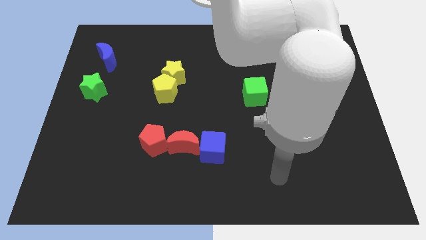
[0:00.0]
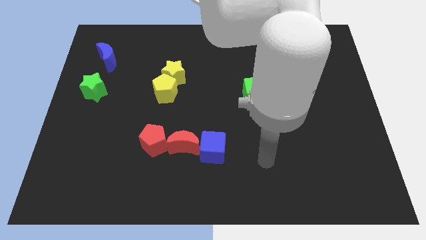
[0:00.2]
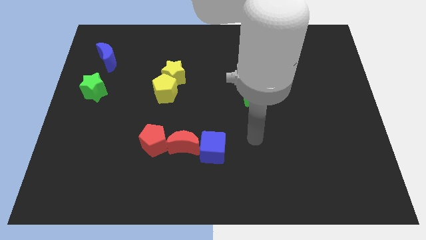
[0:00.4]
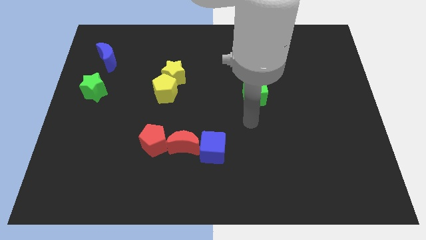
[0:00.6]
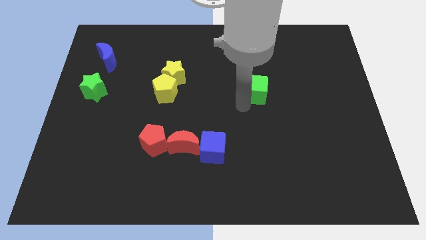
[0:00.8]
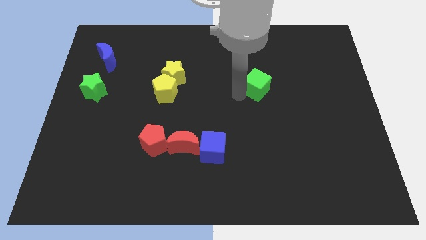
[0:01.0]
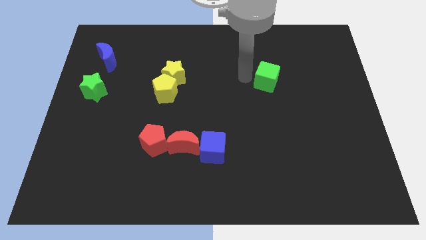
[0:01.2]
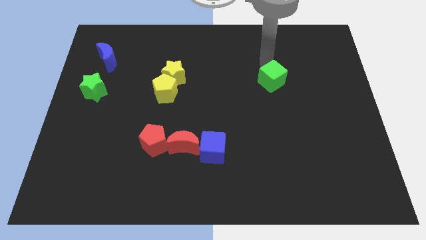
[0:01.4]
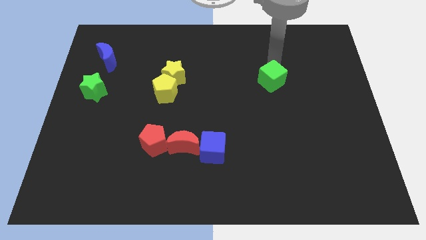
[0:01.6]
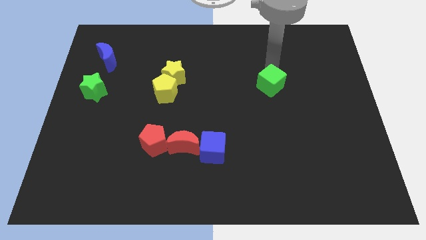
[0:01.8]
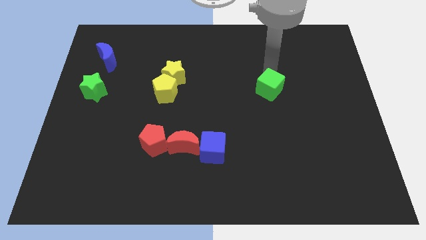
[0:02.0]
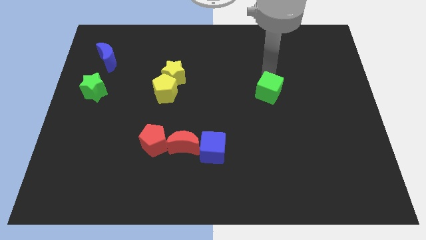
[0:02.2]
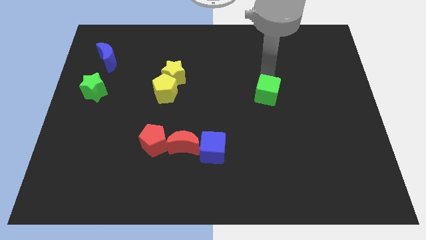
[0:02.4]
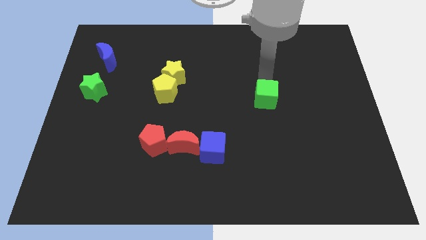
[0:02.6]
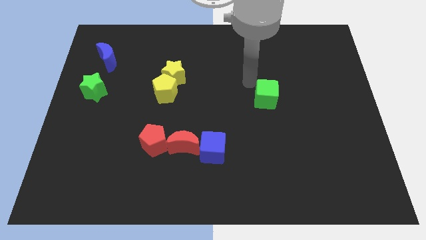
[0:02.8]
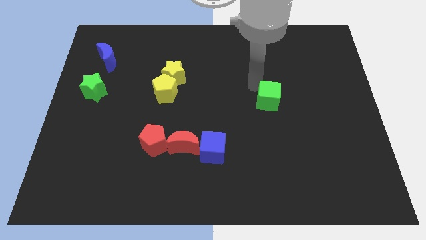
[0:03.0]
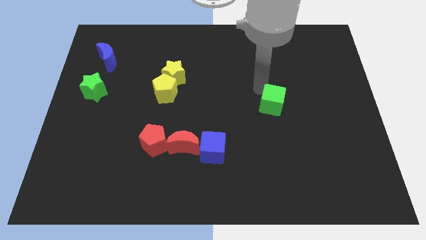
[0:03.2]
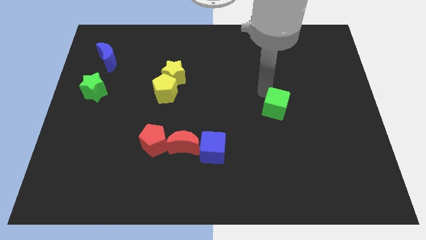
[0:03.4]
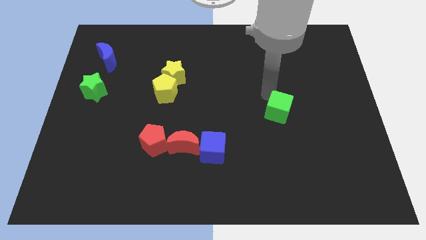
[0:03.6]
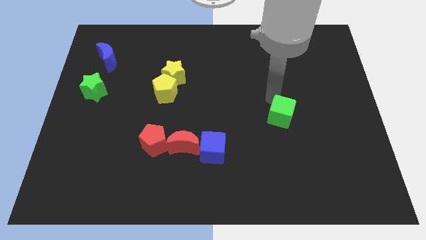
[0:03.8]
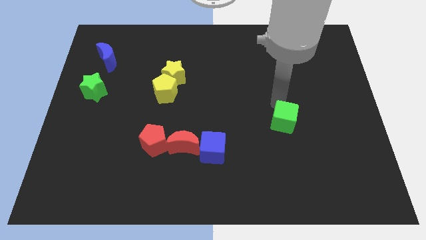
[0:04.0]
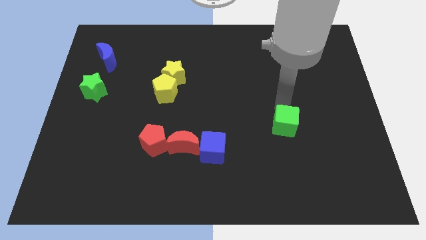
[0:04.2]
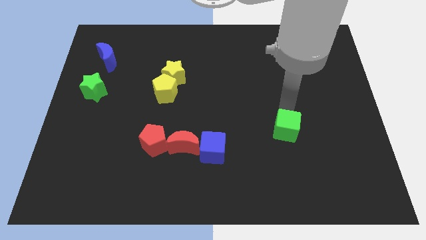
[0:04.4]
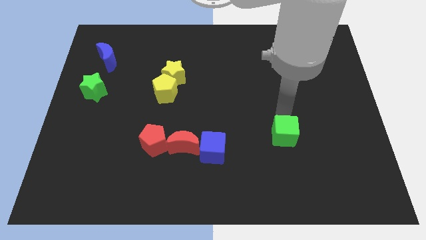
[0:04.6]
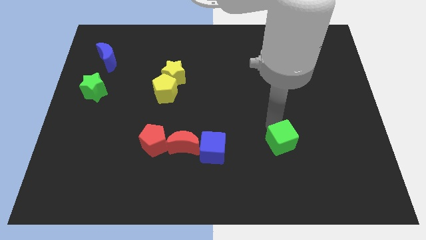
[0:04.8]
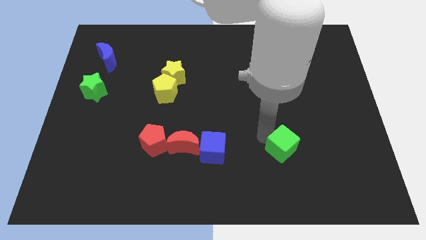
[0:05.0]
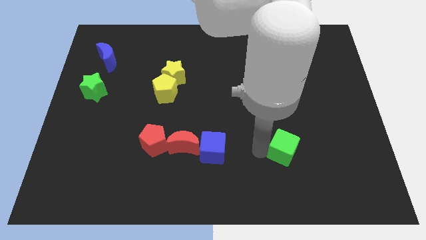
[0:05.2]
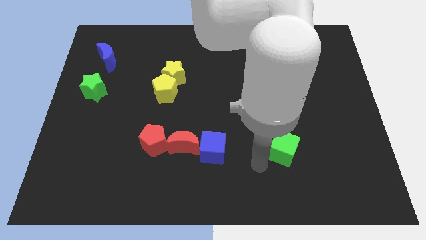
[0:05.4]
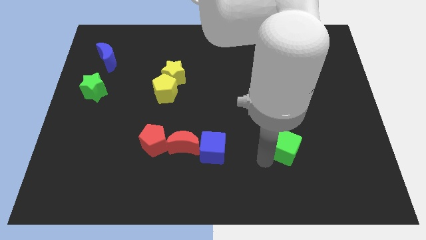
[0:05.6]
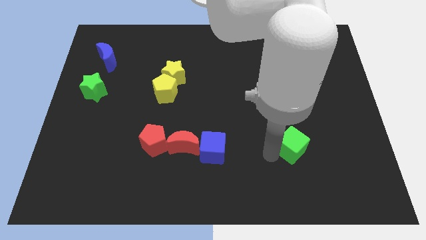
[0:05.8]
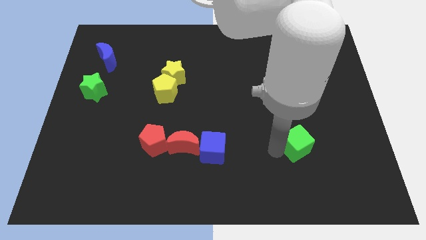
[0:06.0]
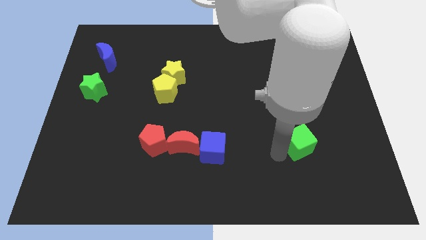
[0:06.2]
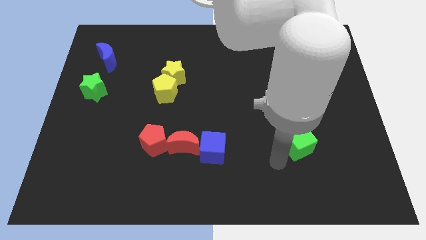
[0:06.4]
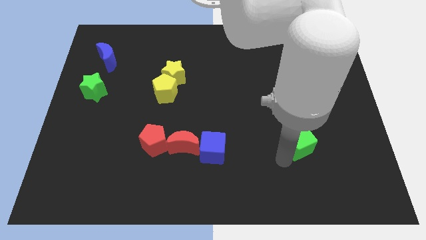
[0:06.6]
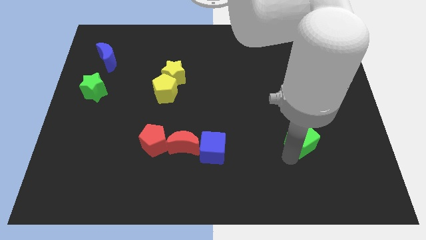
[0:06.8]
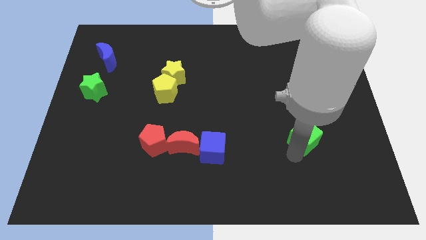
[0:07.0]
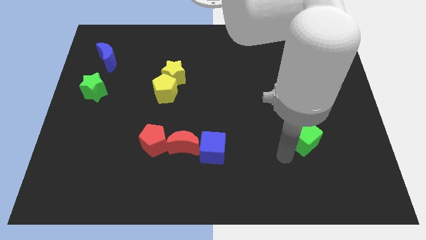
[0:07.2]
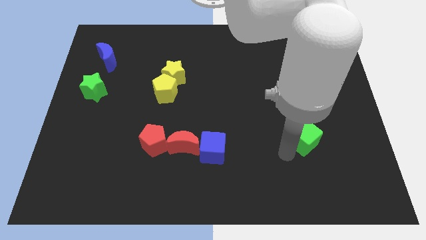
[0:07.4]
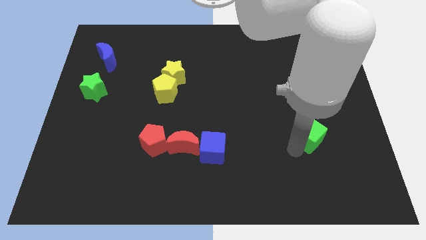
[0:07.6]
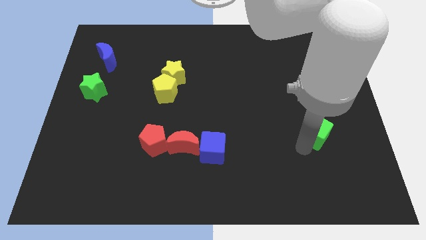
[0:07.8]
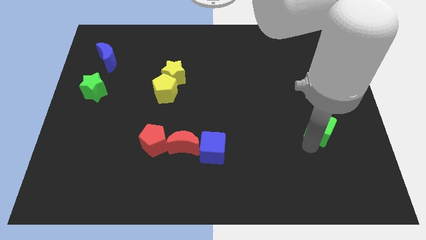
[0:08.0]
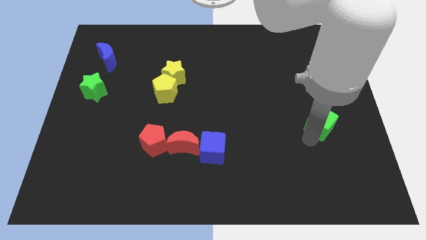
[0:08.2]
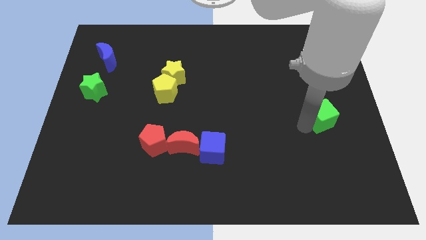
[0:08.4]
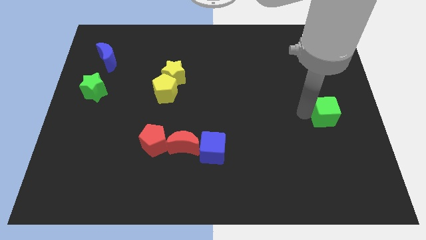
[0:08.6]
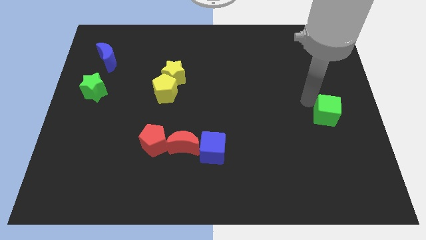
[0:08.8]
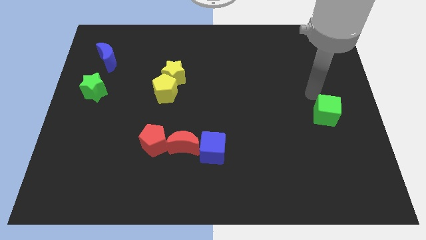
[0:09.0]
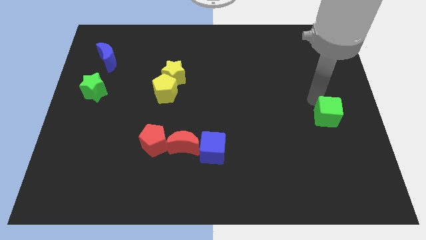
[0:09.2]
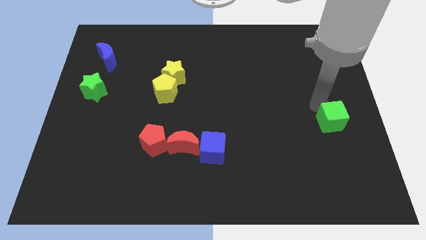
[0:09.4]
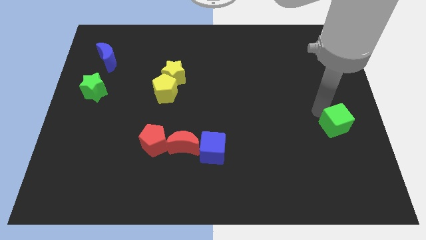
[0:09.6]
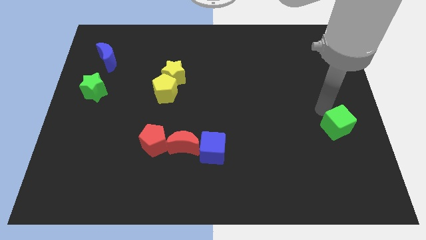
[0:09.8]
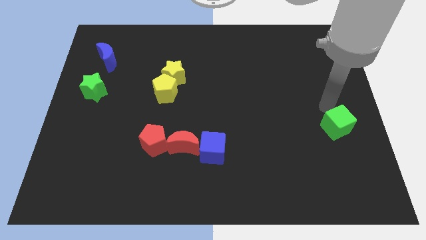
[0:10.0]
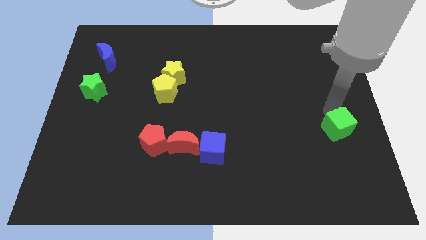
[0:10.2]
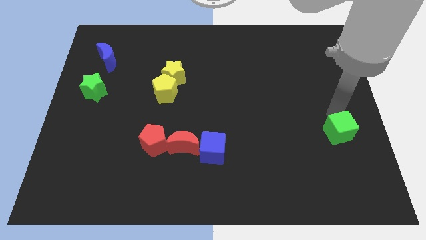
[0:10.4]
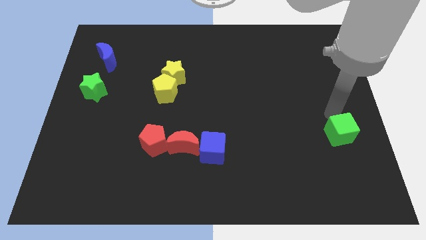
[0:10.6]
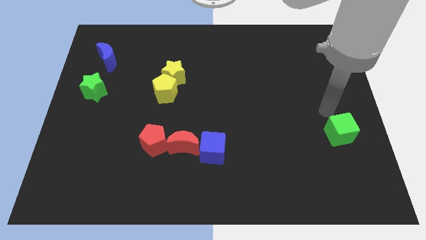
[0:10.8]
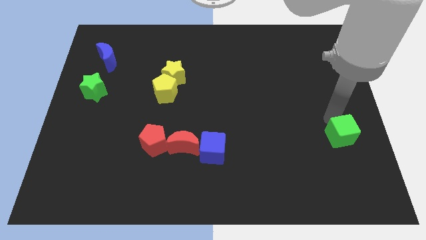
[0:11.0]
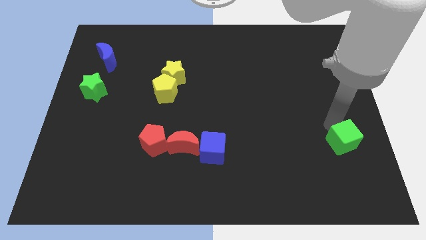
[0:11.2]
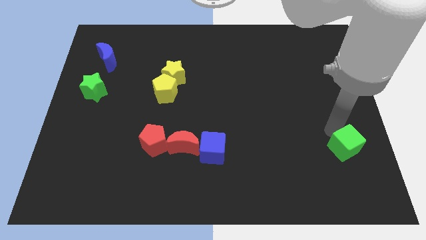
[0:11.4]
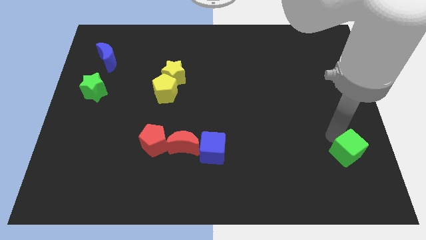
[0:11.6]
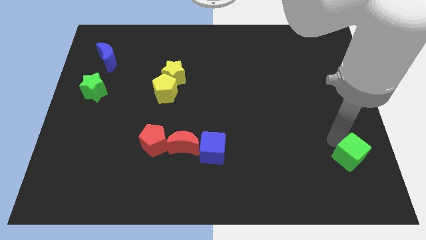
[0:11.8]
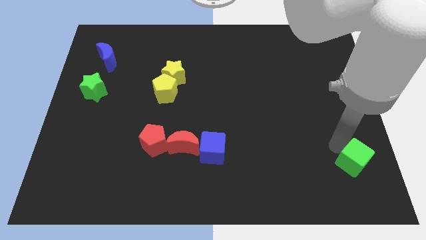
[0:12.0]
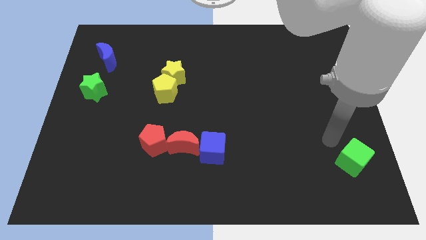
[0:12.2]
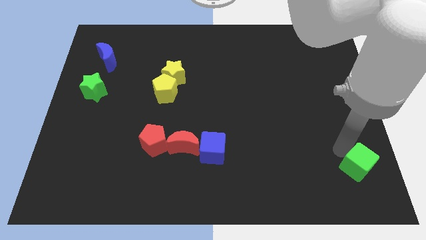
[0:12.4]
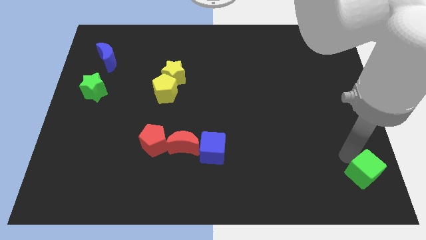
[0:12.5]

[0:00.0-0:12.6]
slide the green cube to the bottom right of the board

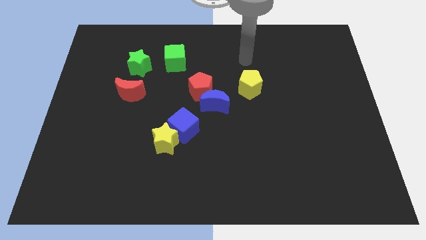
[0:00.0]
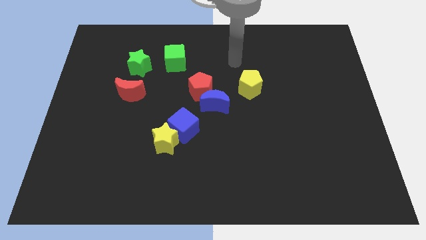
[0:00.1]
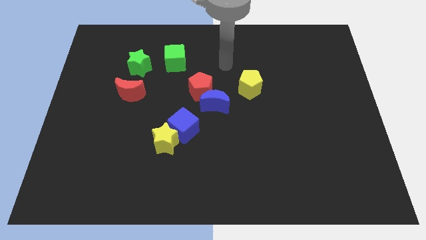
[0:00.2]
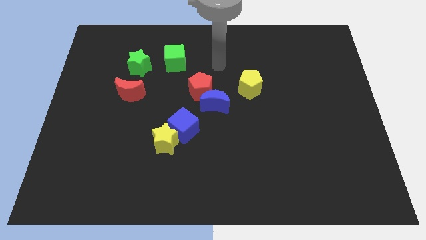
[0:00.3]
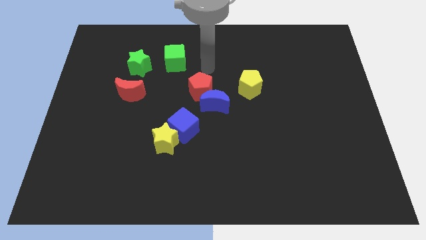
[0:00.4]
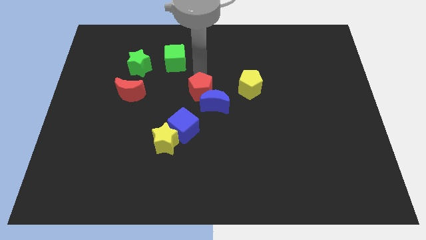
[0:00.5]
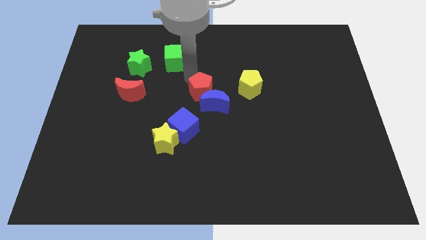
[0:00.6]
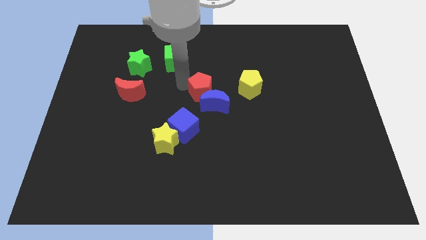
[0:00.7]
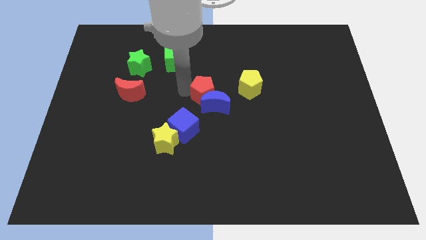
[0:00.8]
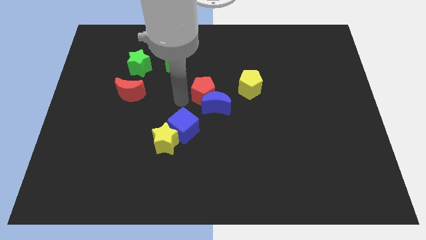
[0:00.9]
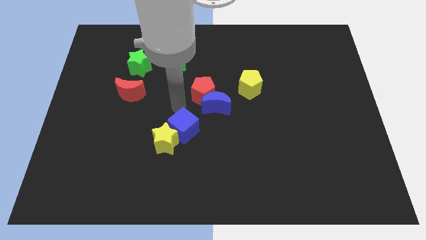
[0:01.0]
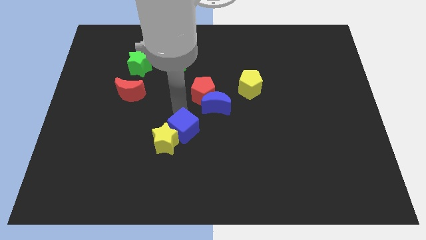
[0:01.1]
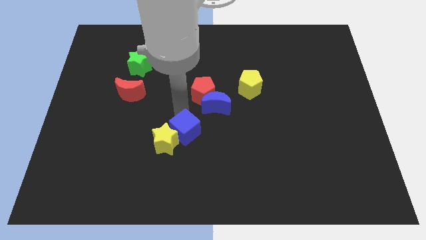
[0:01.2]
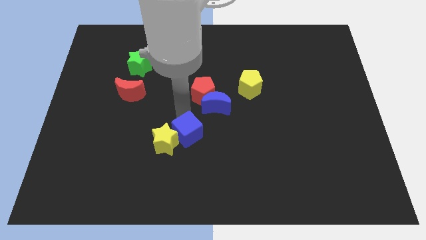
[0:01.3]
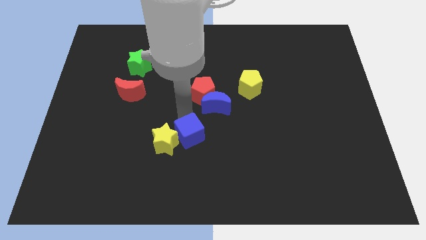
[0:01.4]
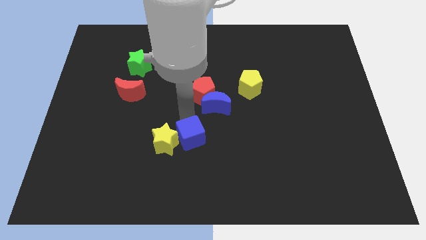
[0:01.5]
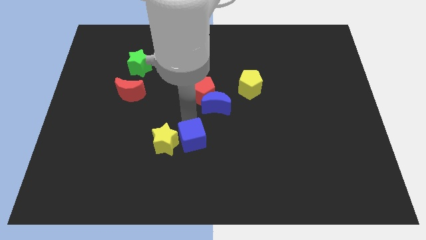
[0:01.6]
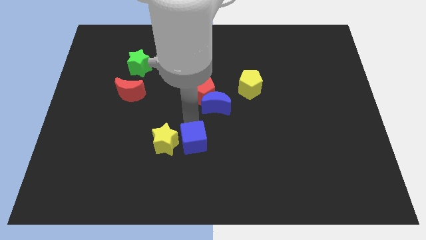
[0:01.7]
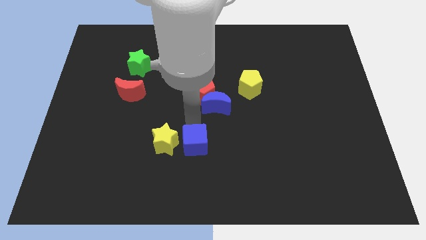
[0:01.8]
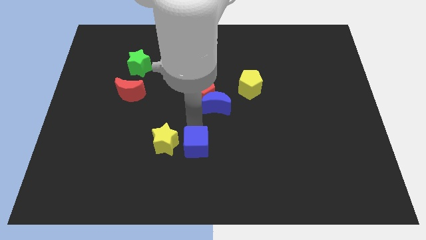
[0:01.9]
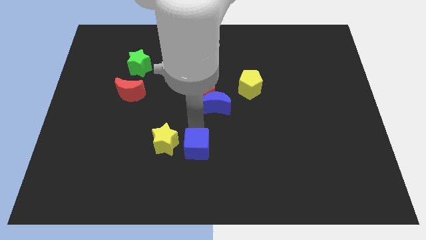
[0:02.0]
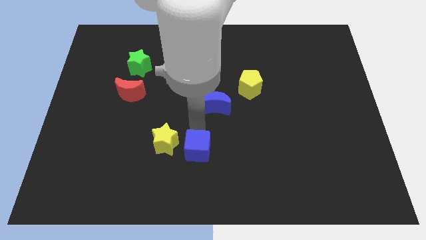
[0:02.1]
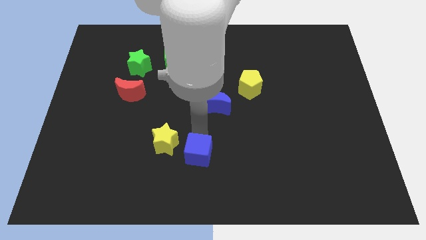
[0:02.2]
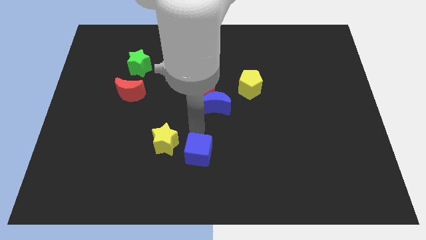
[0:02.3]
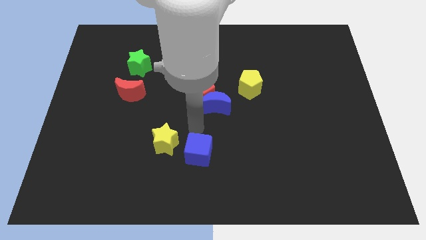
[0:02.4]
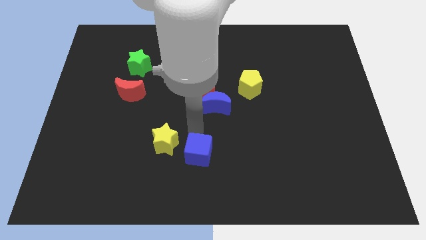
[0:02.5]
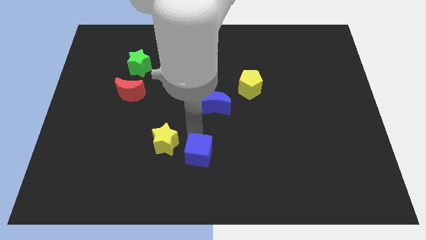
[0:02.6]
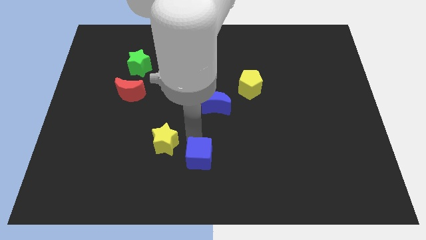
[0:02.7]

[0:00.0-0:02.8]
move the blue cube to the bottom
